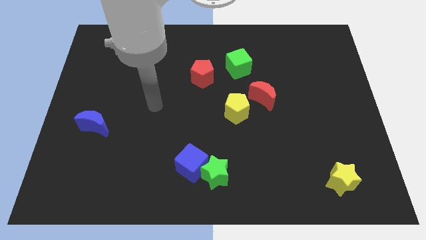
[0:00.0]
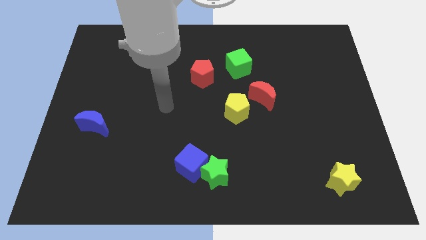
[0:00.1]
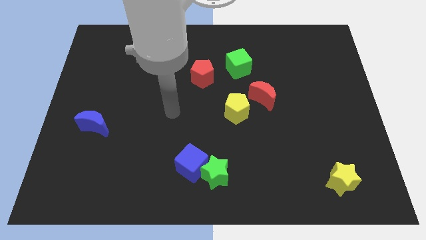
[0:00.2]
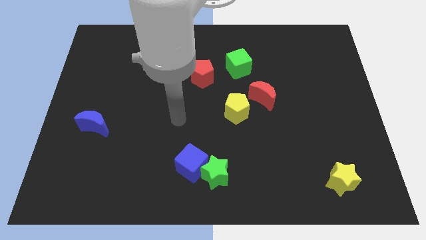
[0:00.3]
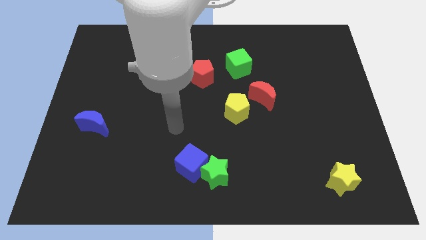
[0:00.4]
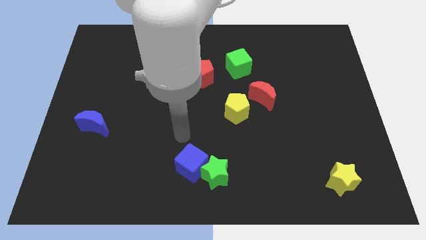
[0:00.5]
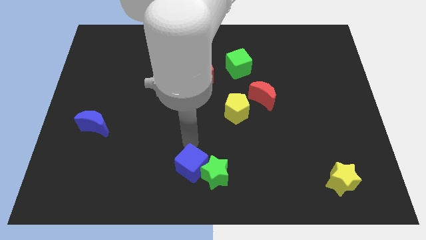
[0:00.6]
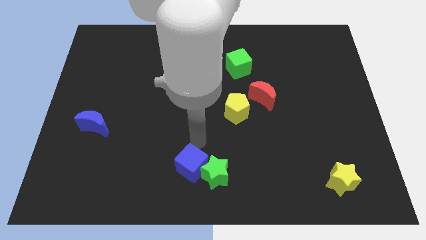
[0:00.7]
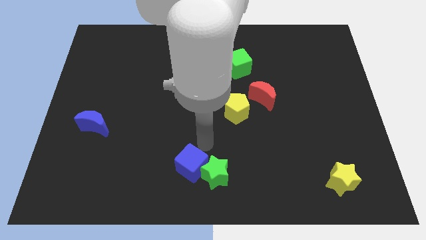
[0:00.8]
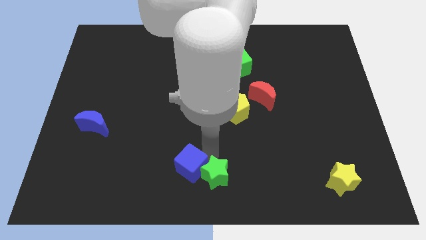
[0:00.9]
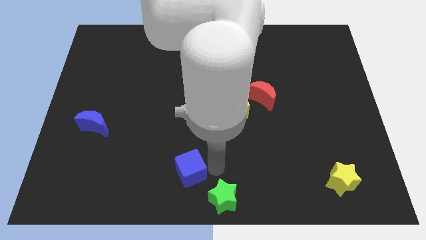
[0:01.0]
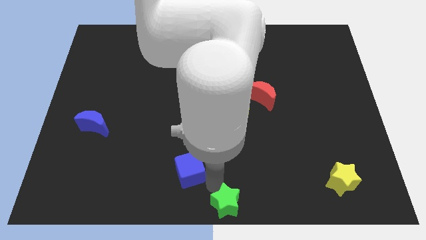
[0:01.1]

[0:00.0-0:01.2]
separate the blue cube from the green star

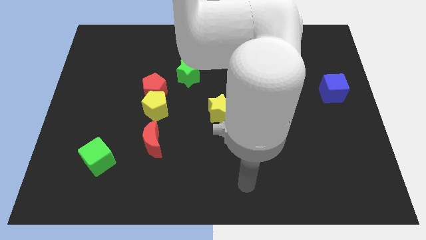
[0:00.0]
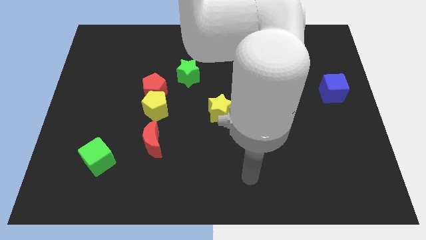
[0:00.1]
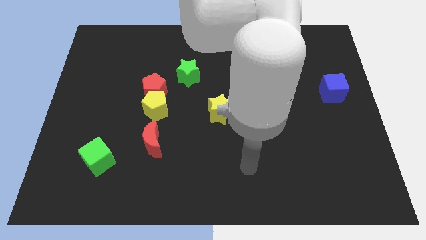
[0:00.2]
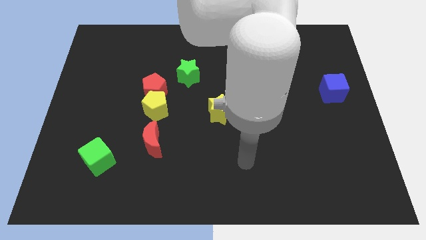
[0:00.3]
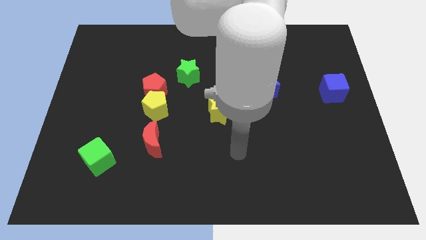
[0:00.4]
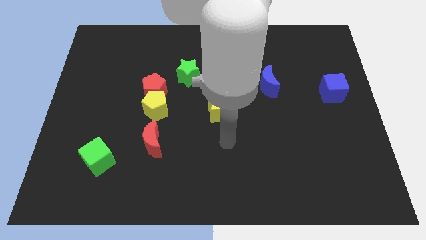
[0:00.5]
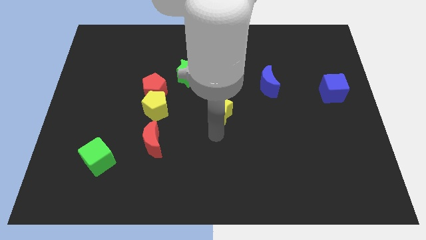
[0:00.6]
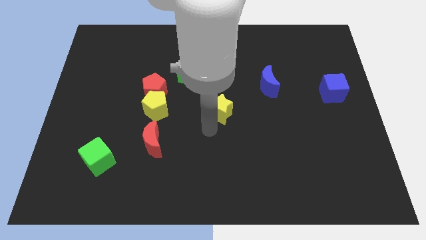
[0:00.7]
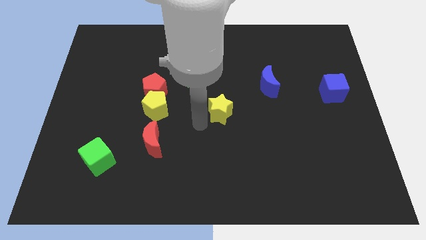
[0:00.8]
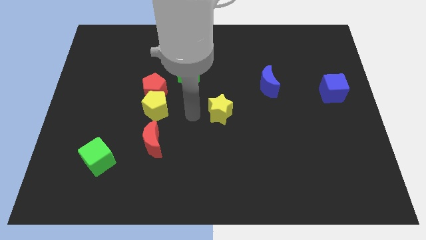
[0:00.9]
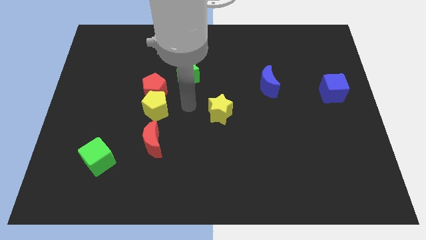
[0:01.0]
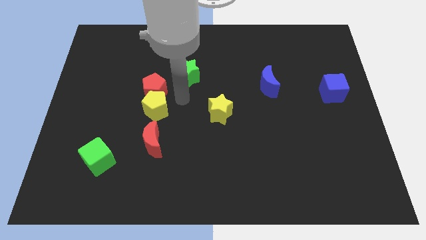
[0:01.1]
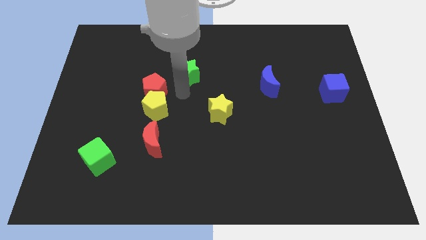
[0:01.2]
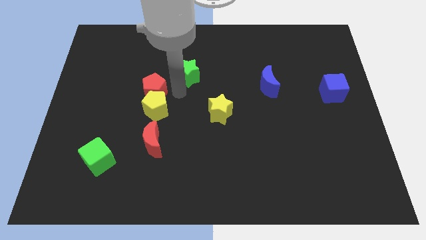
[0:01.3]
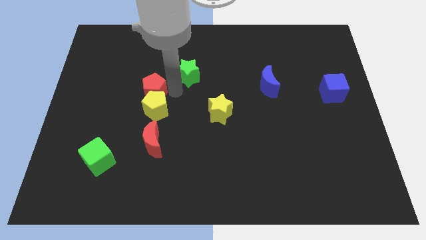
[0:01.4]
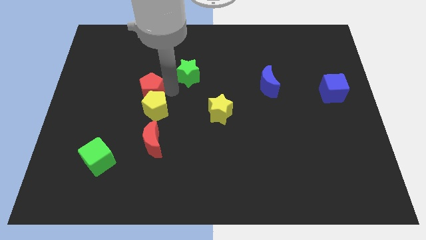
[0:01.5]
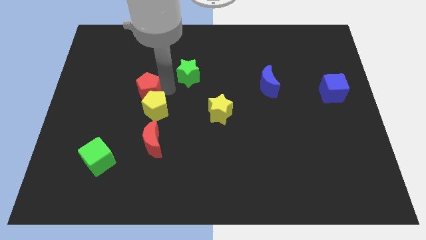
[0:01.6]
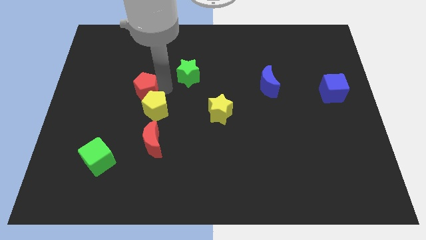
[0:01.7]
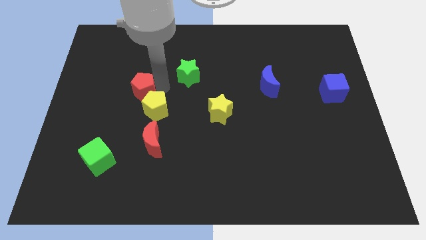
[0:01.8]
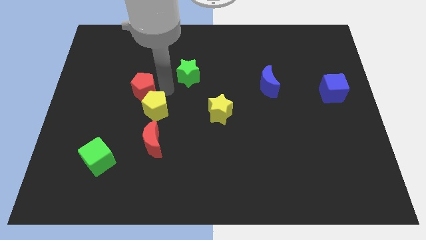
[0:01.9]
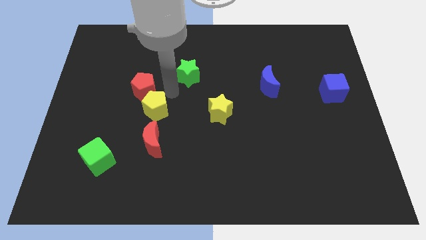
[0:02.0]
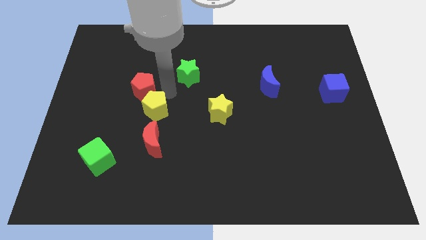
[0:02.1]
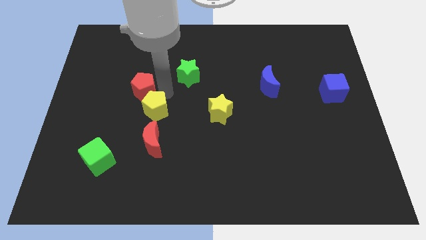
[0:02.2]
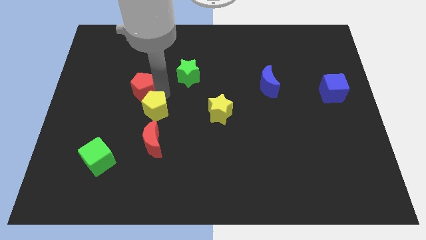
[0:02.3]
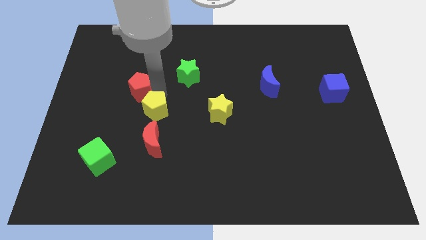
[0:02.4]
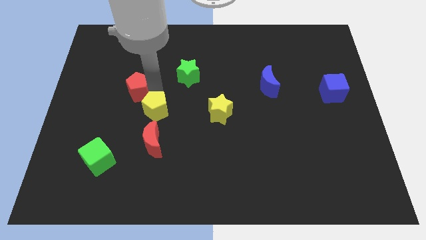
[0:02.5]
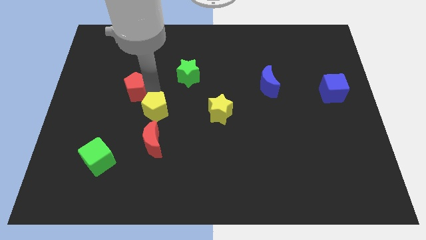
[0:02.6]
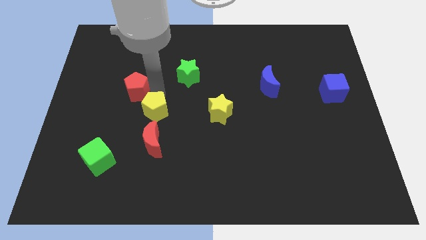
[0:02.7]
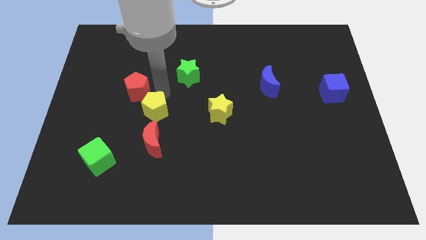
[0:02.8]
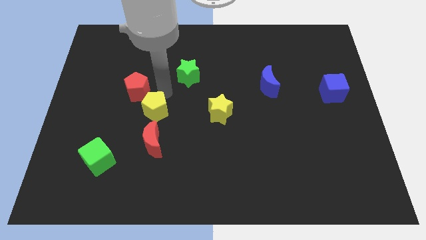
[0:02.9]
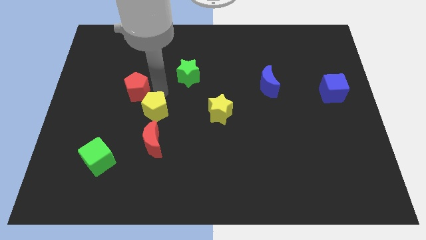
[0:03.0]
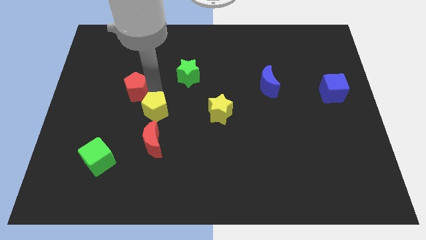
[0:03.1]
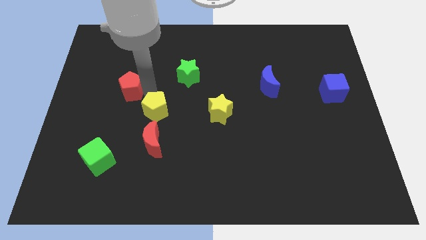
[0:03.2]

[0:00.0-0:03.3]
pull the red pentagon apart from the yellow pentagon and green star

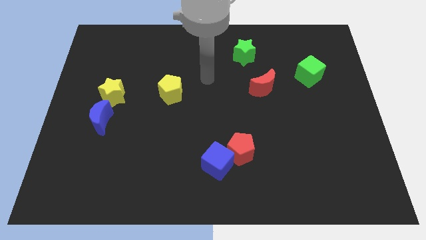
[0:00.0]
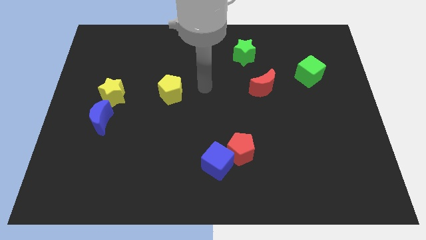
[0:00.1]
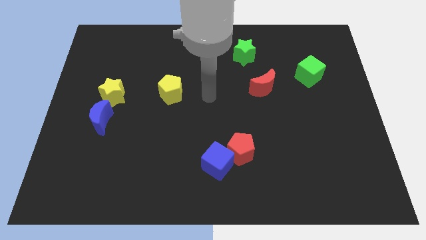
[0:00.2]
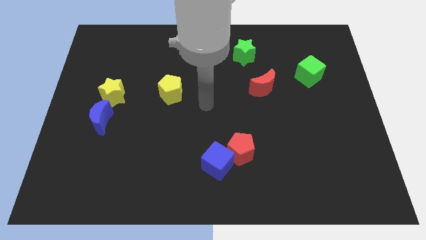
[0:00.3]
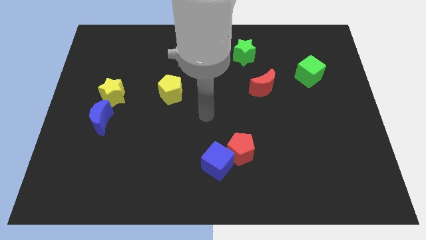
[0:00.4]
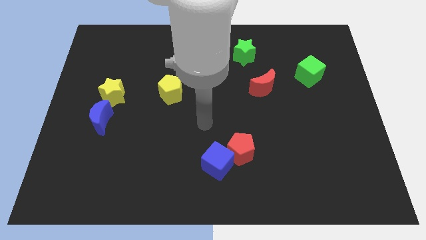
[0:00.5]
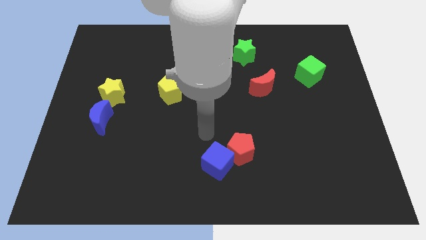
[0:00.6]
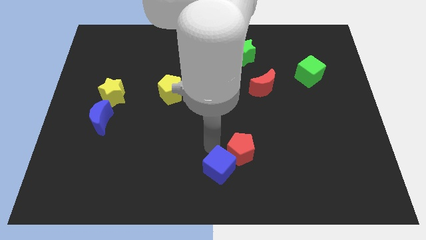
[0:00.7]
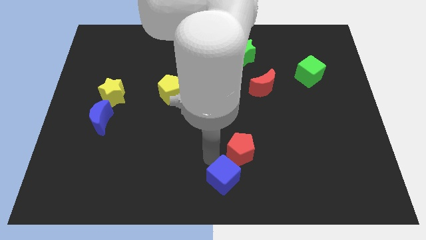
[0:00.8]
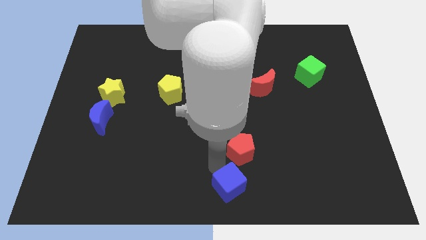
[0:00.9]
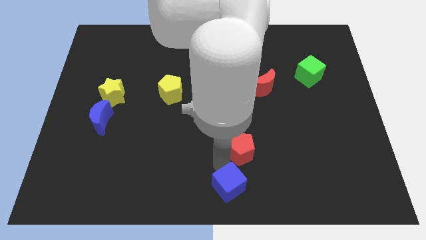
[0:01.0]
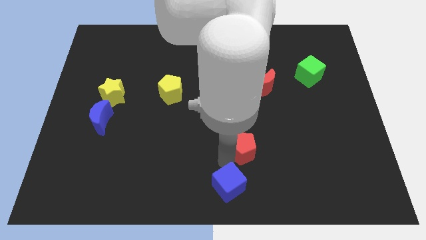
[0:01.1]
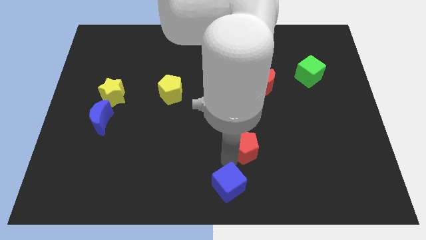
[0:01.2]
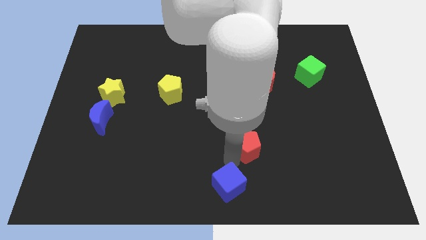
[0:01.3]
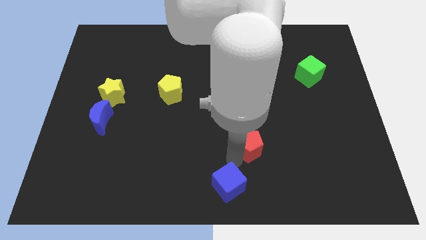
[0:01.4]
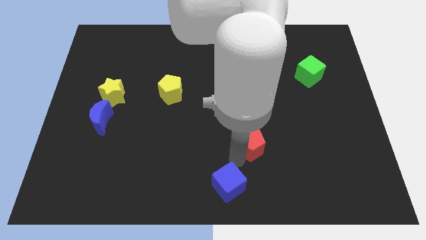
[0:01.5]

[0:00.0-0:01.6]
pull the red pentagon apart from the blue cube

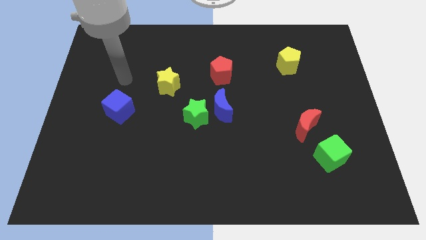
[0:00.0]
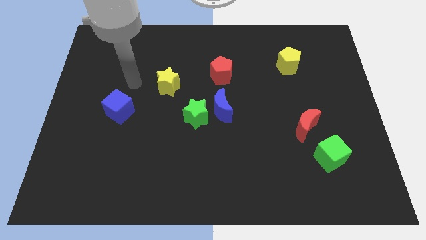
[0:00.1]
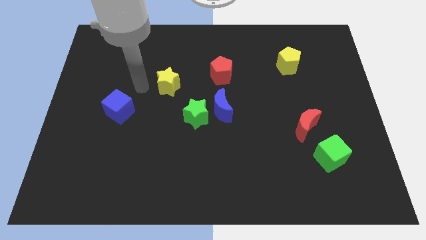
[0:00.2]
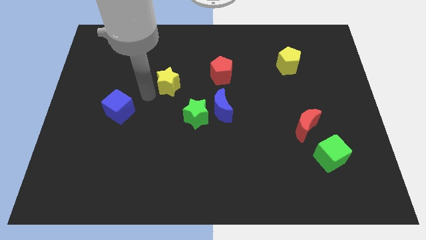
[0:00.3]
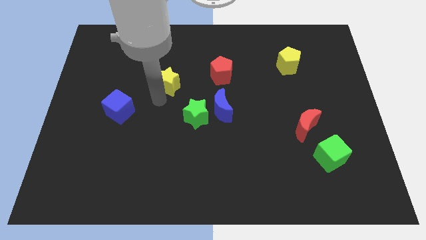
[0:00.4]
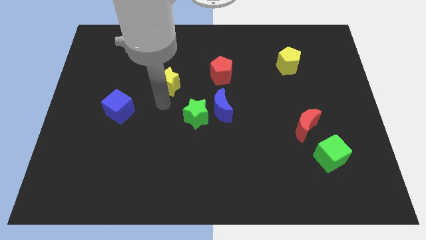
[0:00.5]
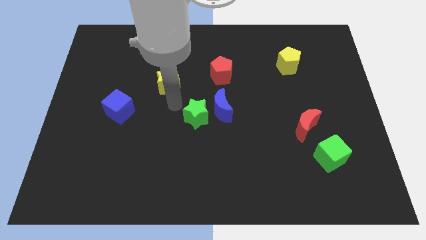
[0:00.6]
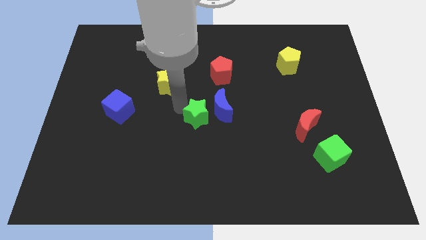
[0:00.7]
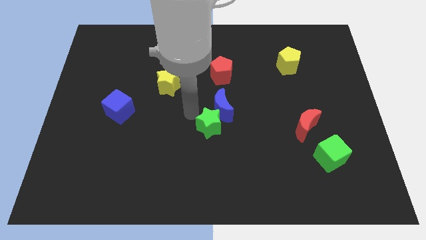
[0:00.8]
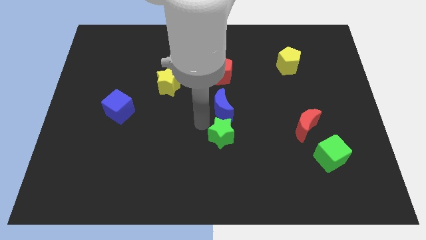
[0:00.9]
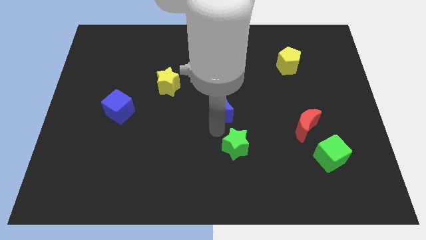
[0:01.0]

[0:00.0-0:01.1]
pull the blue moon apart from the green star

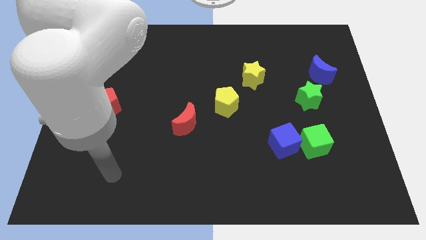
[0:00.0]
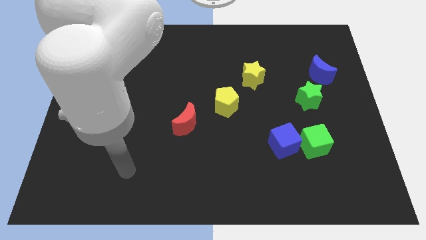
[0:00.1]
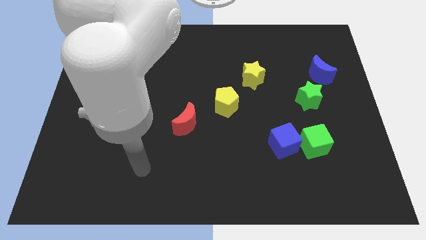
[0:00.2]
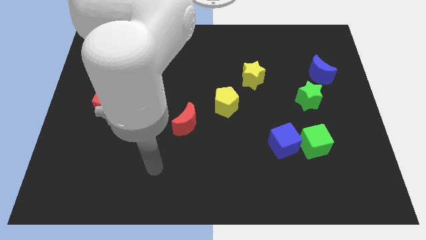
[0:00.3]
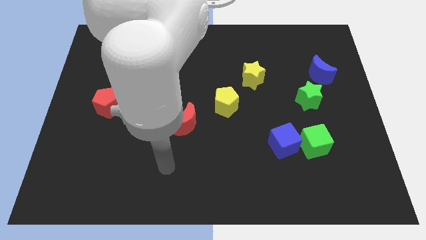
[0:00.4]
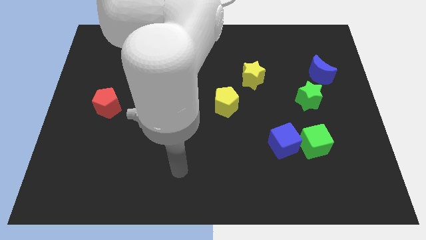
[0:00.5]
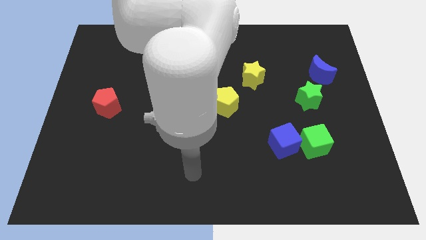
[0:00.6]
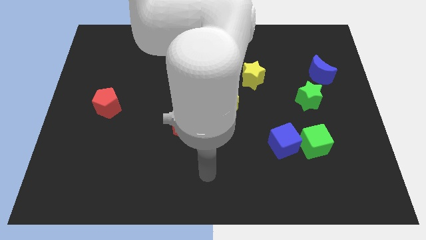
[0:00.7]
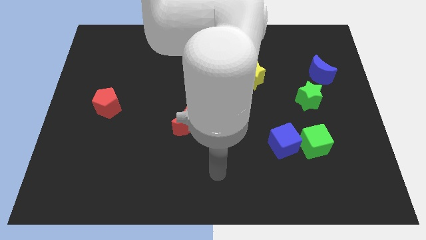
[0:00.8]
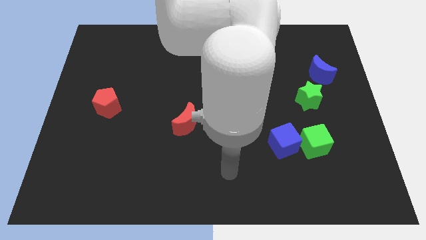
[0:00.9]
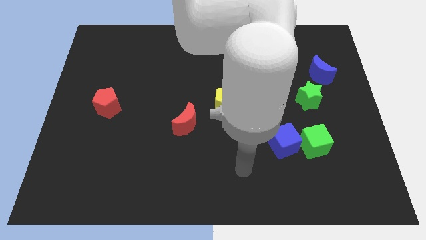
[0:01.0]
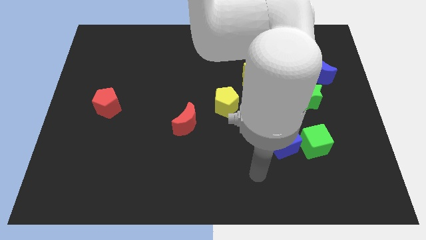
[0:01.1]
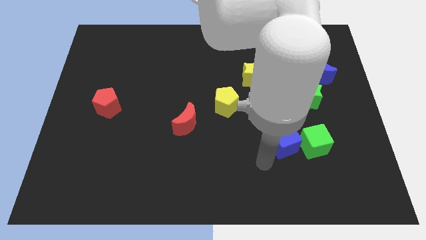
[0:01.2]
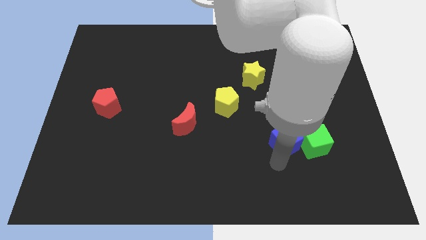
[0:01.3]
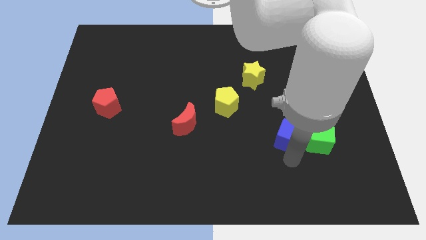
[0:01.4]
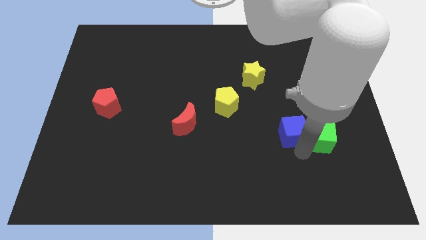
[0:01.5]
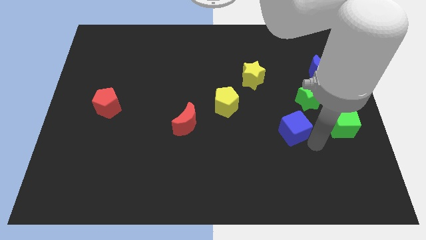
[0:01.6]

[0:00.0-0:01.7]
pull the blue cube apart from the green cube

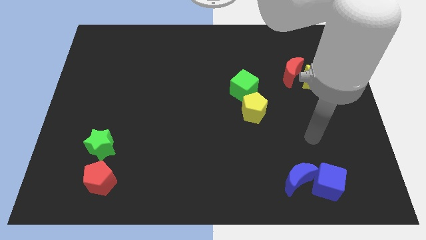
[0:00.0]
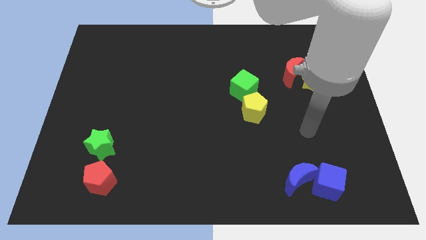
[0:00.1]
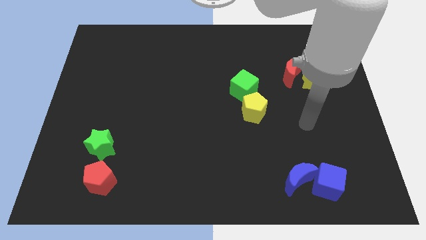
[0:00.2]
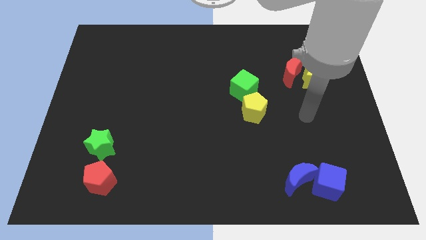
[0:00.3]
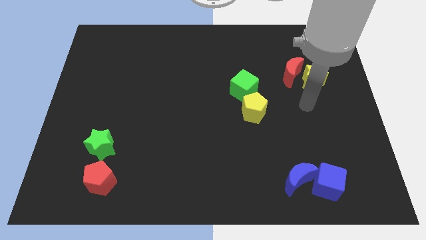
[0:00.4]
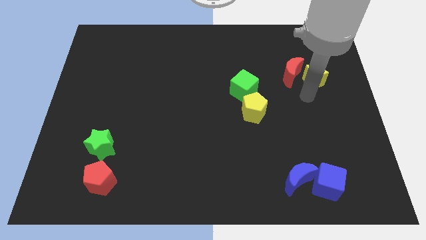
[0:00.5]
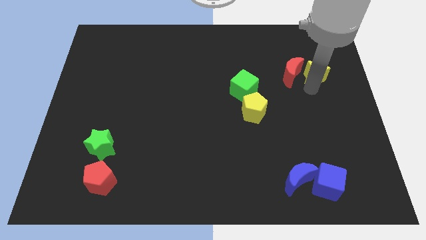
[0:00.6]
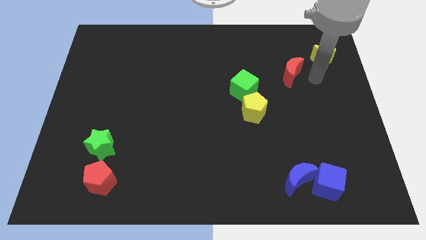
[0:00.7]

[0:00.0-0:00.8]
separate the red moon from the yellow star
